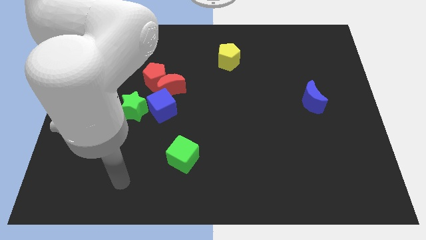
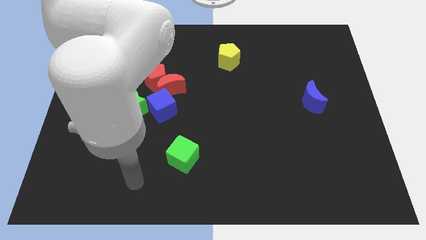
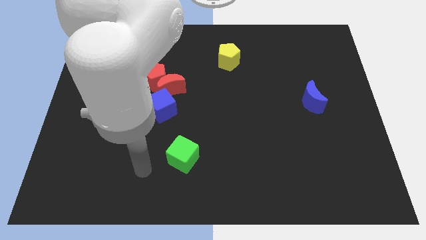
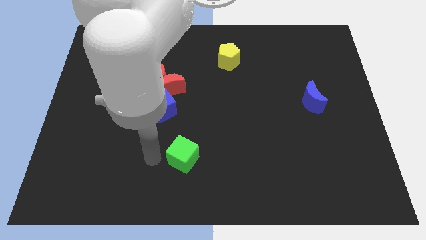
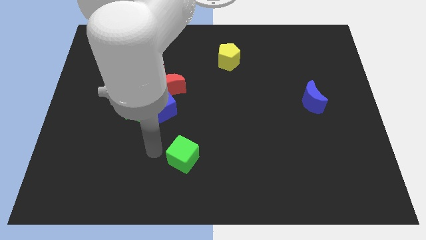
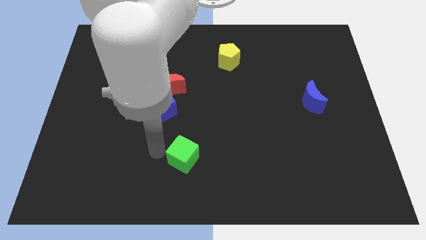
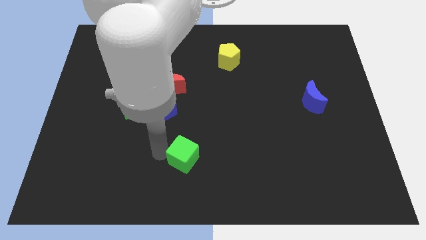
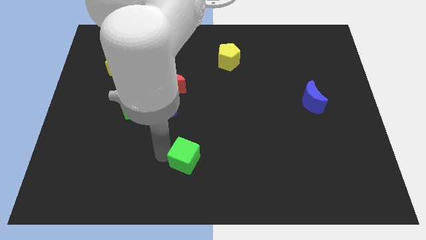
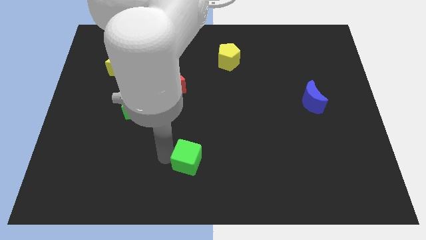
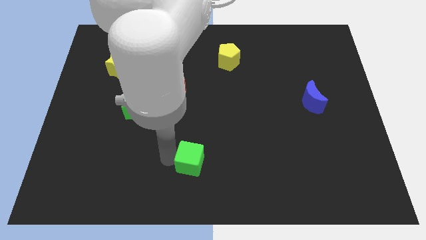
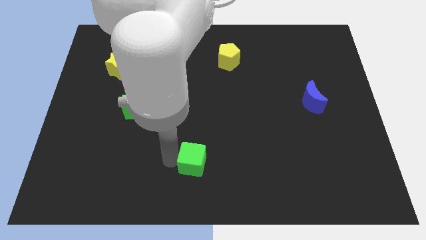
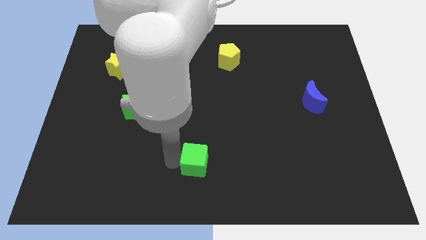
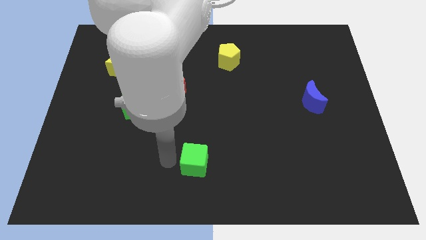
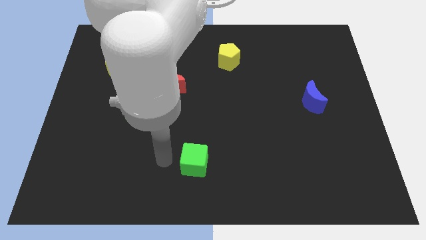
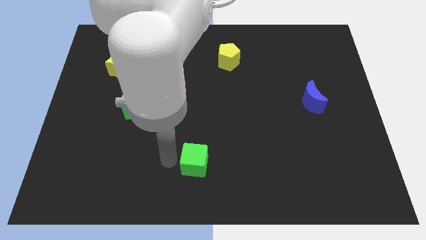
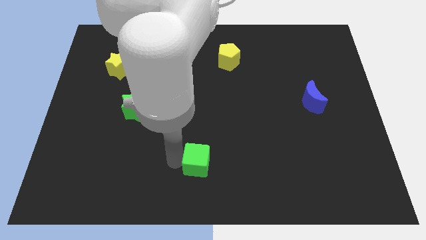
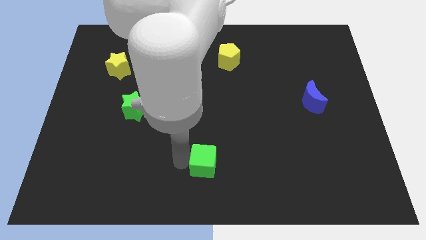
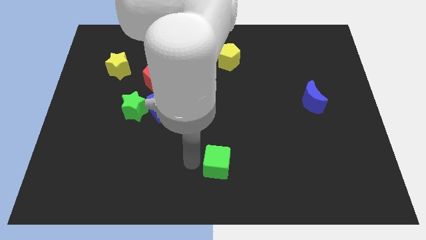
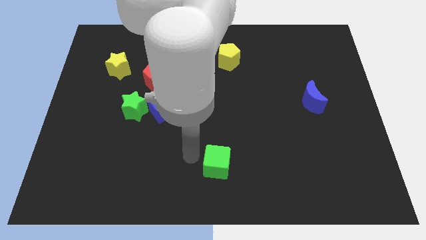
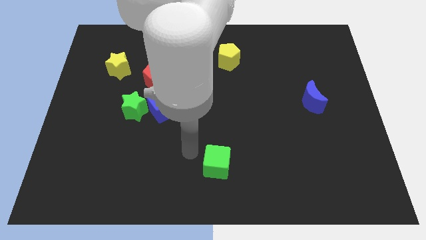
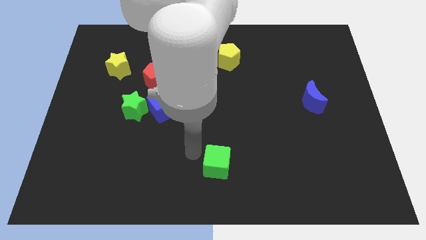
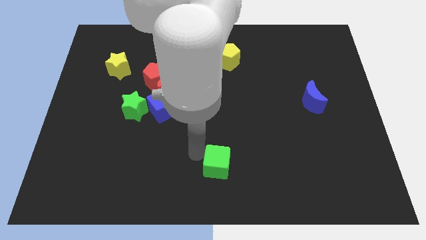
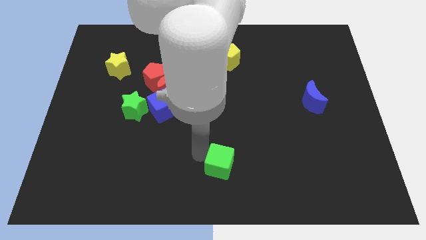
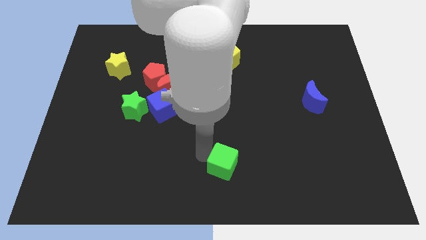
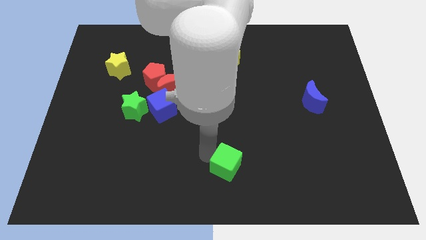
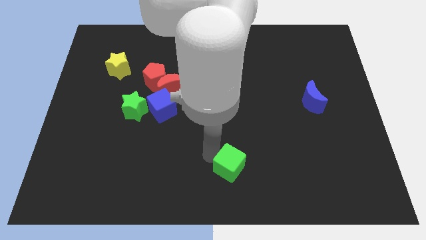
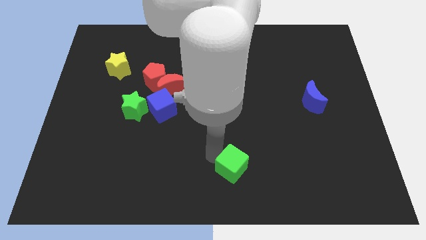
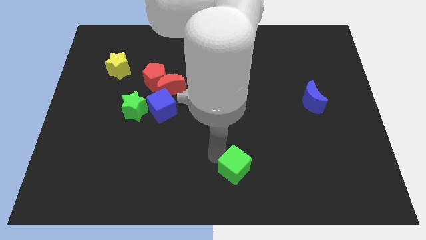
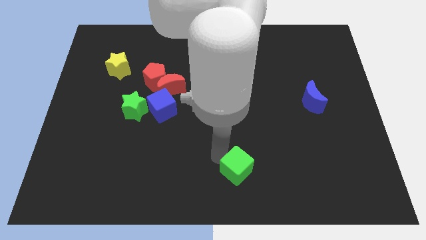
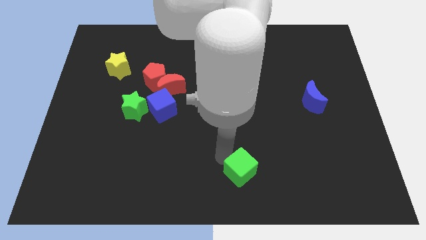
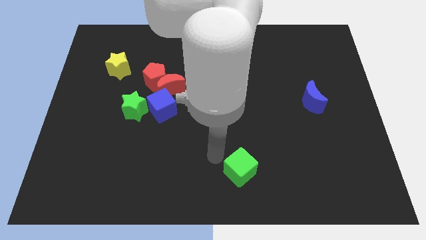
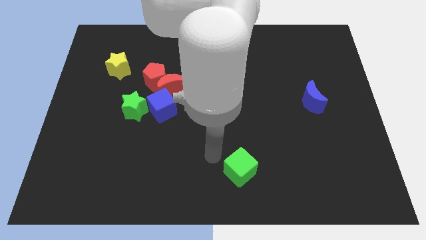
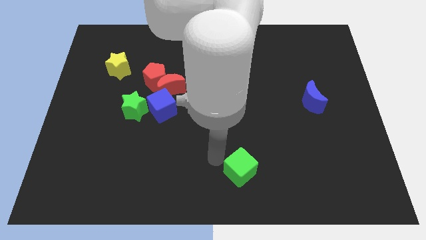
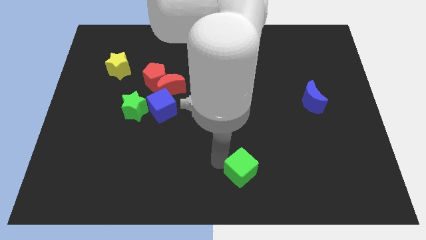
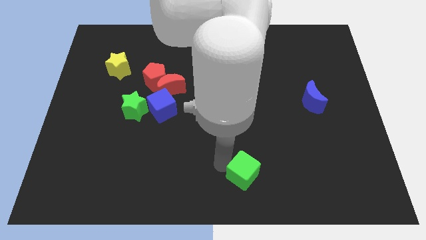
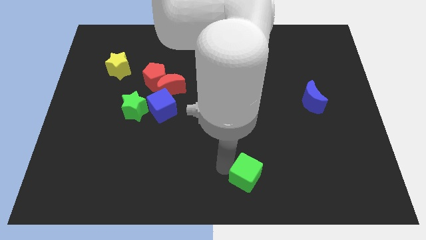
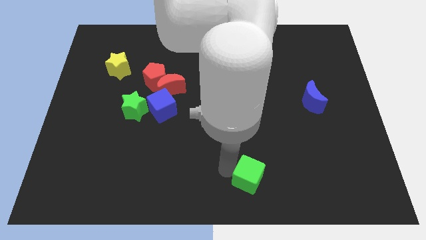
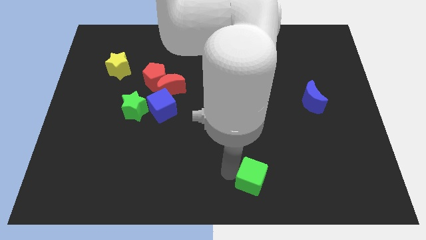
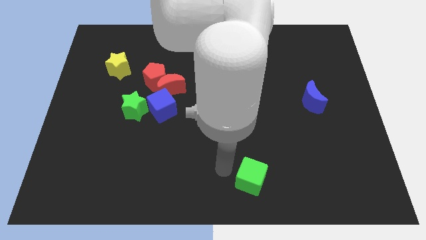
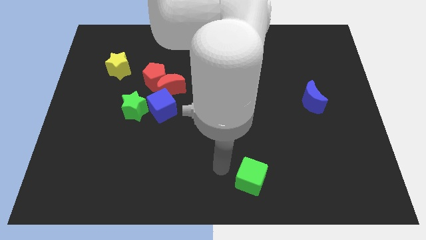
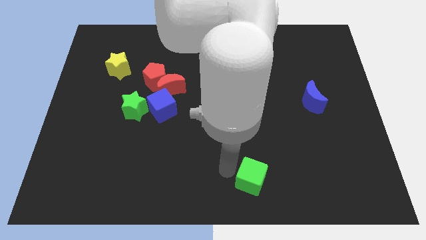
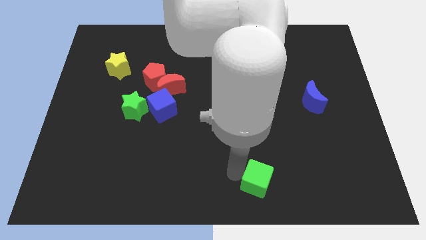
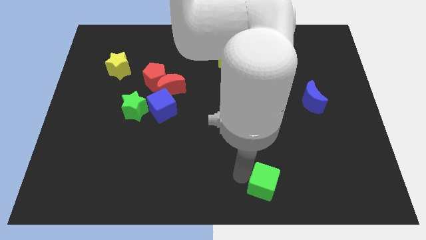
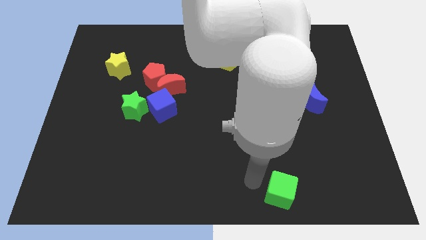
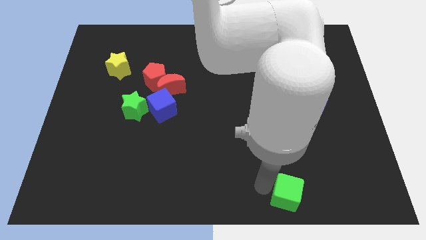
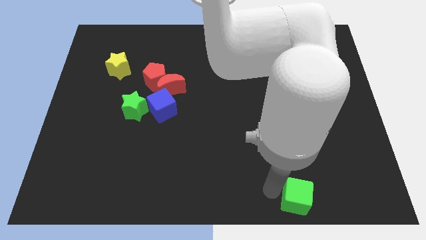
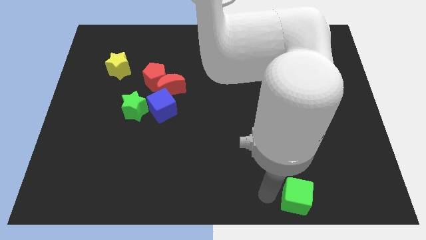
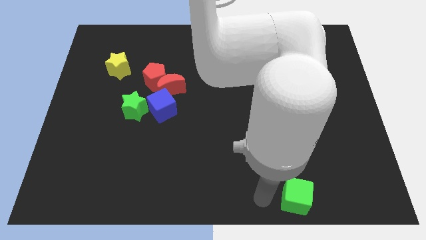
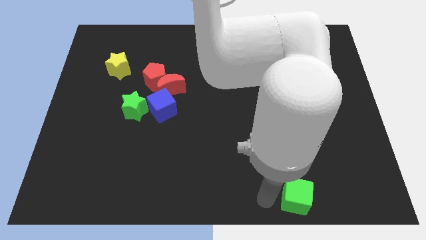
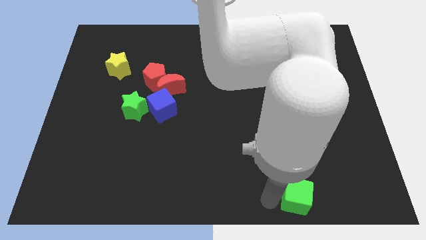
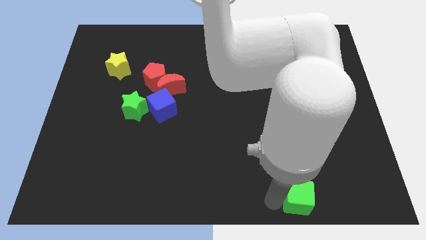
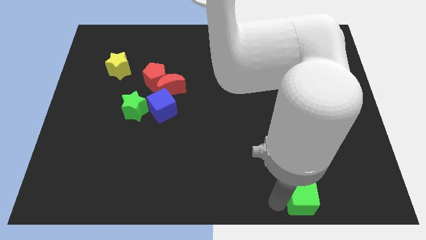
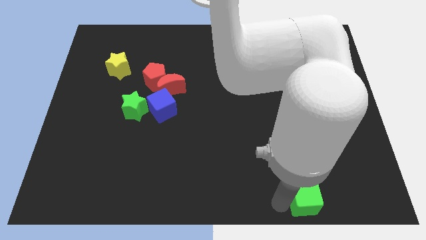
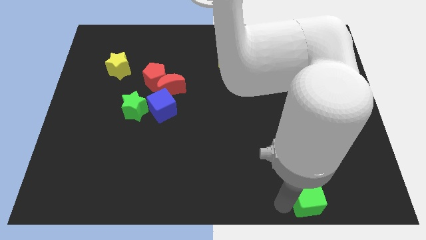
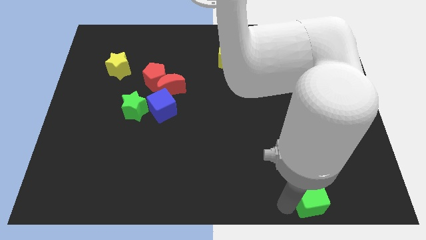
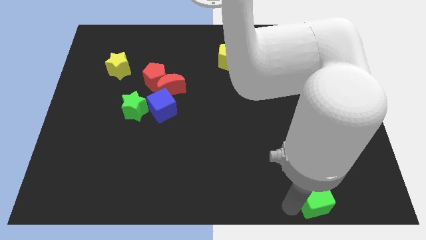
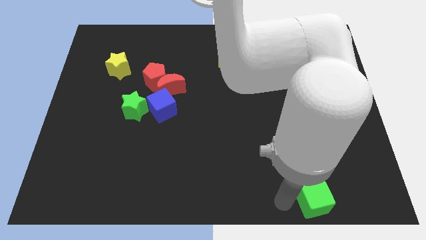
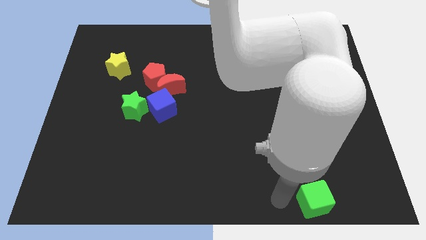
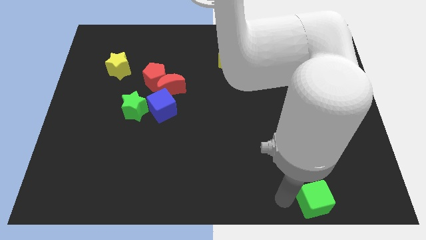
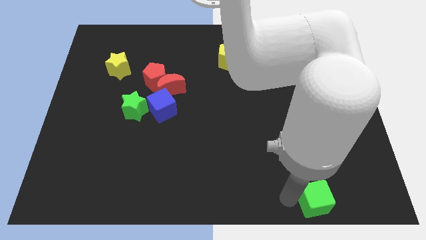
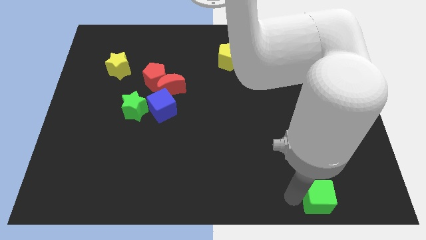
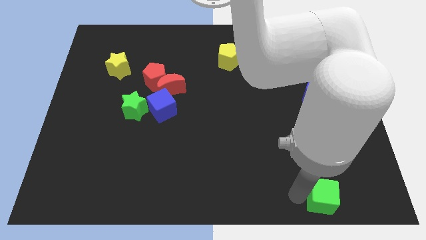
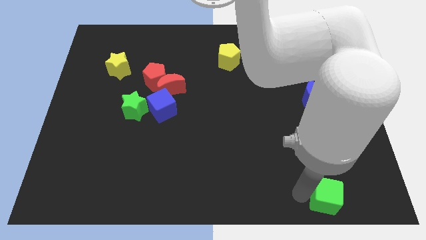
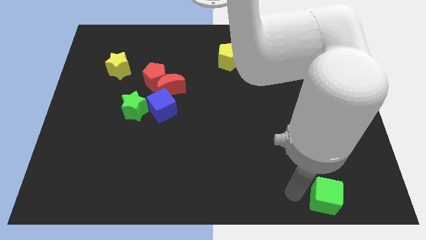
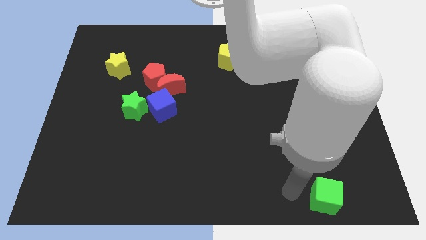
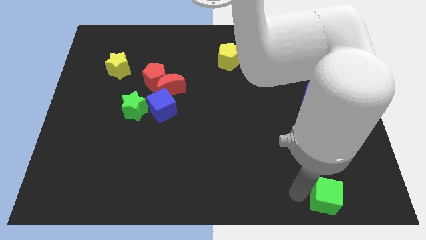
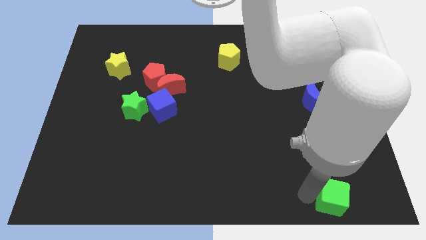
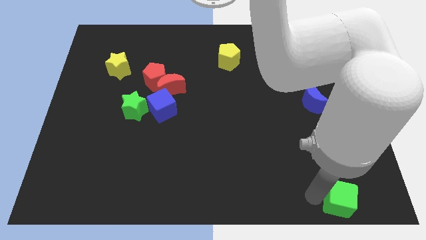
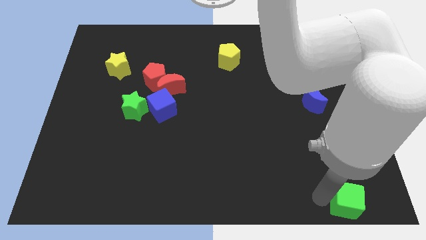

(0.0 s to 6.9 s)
move the green cube to the bottom right of the board
